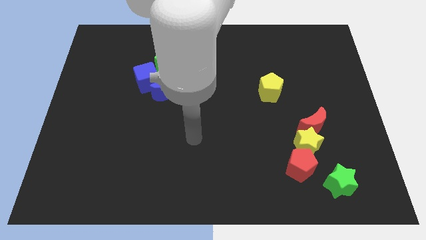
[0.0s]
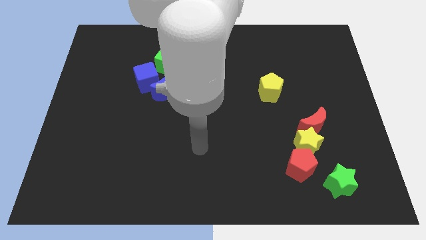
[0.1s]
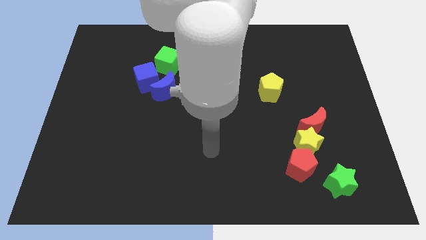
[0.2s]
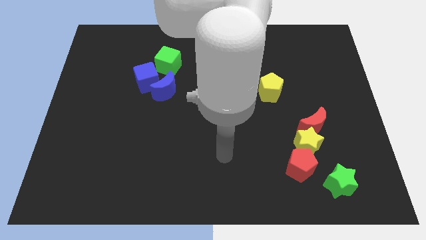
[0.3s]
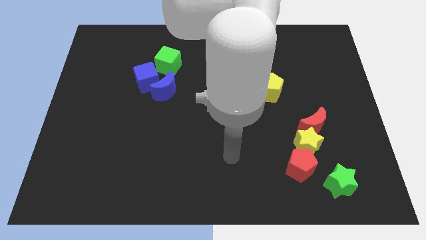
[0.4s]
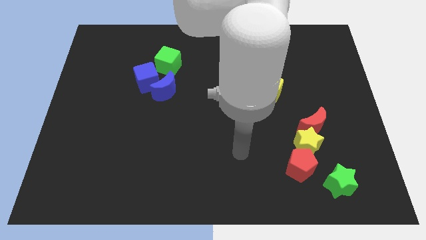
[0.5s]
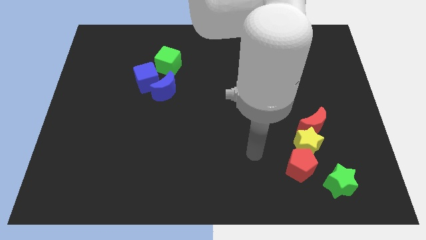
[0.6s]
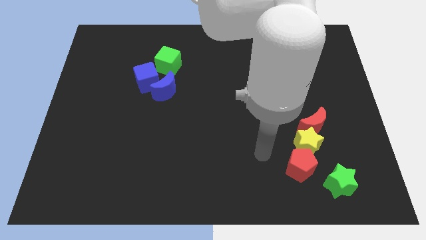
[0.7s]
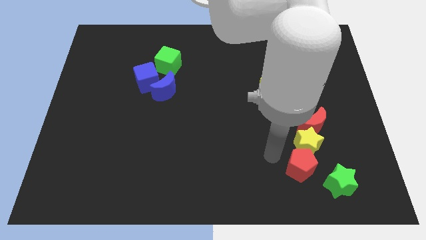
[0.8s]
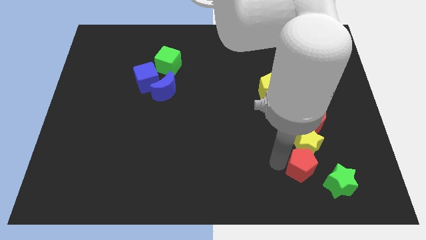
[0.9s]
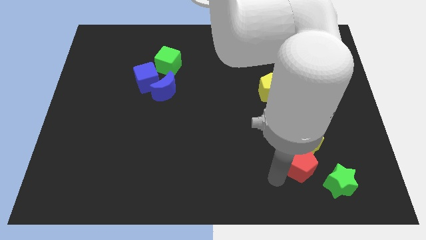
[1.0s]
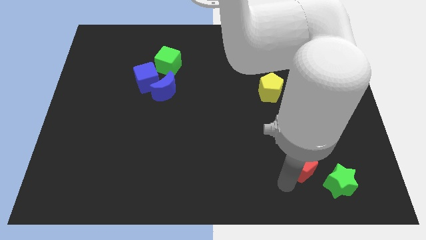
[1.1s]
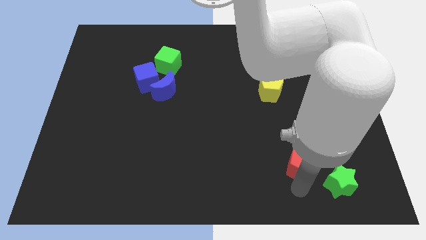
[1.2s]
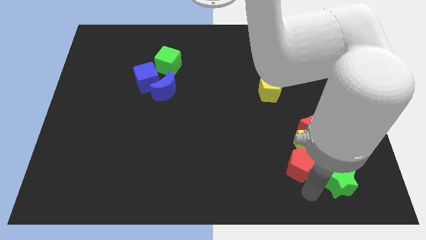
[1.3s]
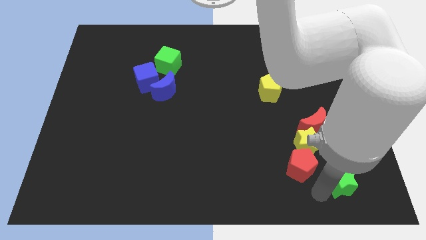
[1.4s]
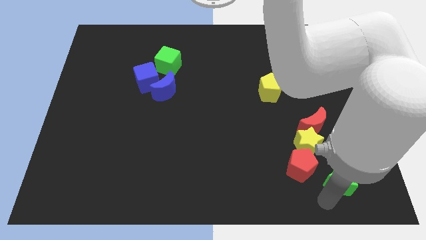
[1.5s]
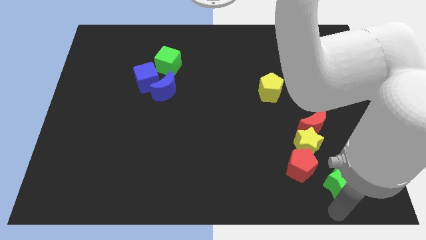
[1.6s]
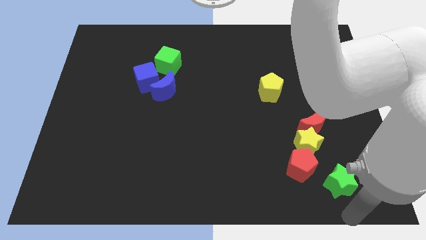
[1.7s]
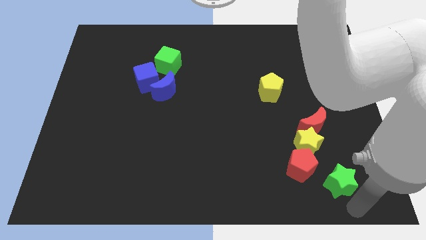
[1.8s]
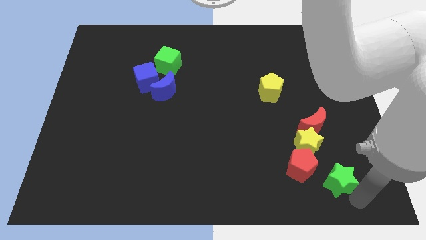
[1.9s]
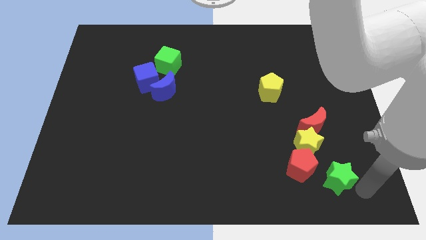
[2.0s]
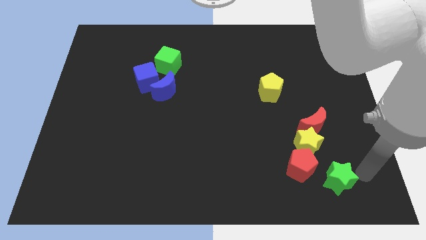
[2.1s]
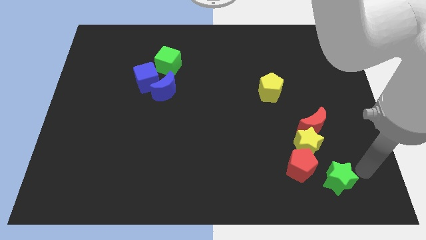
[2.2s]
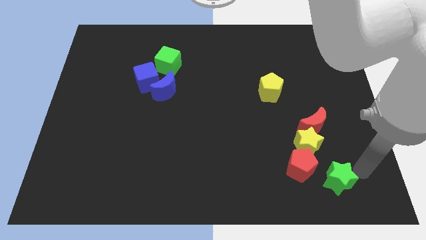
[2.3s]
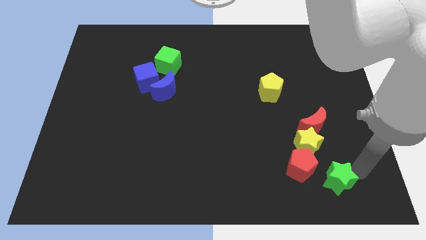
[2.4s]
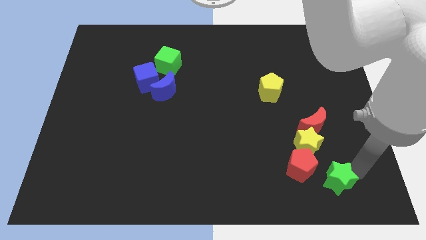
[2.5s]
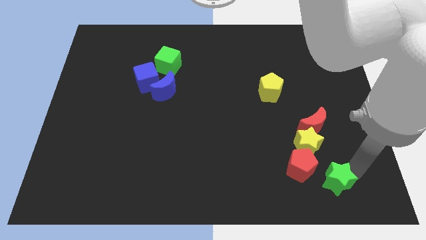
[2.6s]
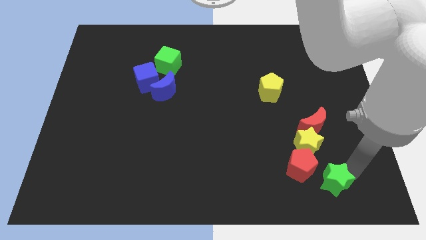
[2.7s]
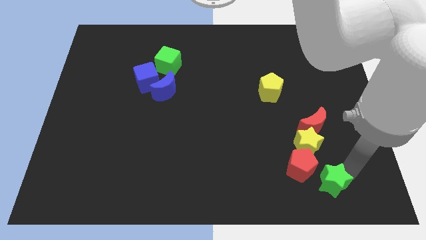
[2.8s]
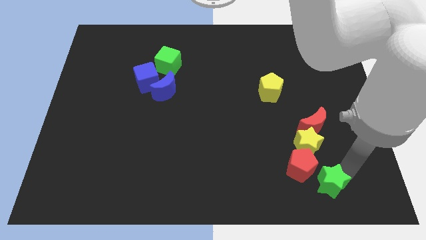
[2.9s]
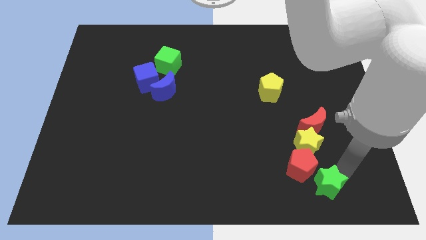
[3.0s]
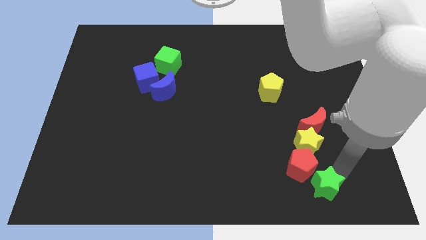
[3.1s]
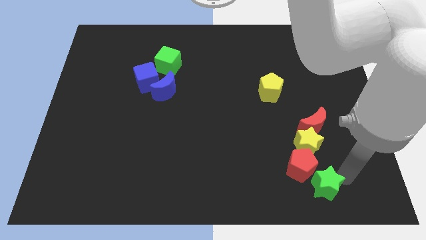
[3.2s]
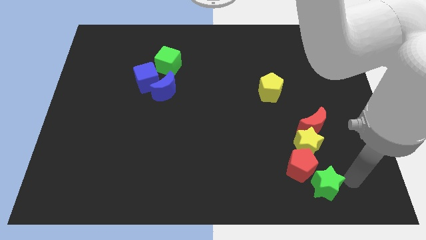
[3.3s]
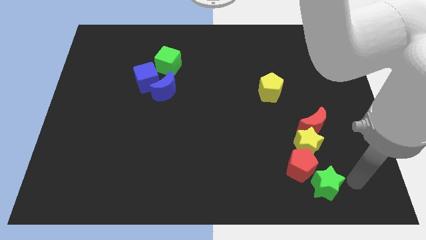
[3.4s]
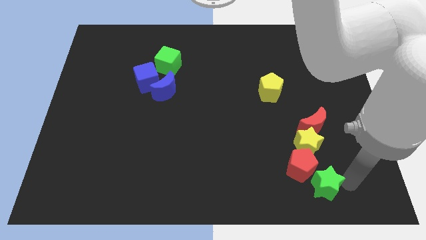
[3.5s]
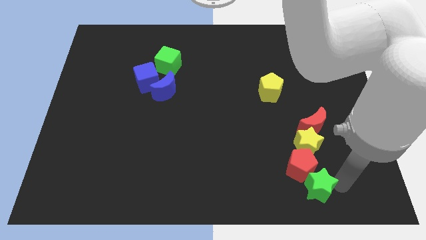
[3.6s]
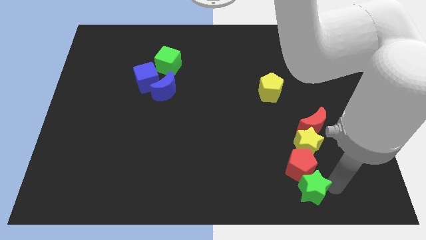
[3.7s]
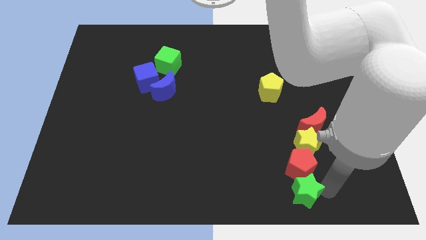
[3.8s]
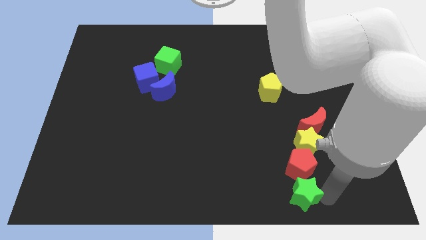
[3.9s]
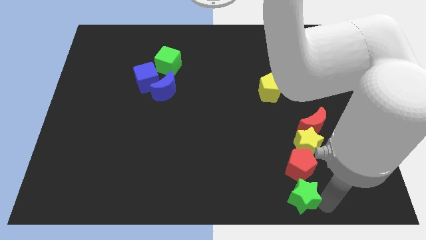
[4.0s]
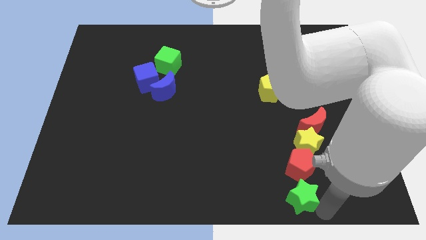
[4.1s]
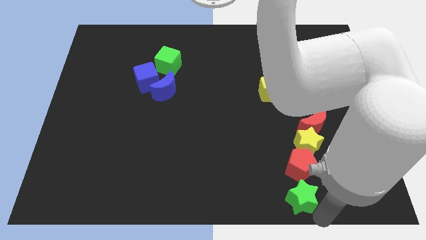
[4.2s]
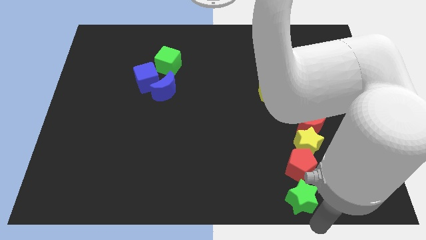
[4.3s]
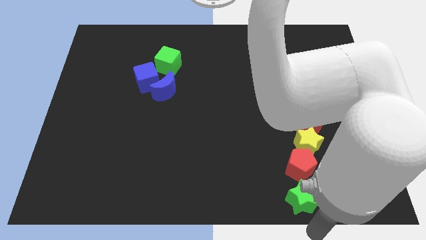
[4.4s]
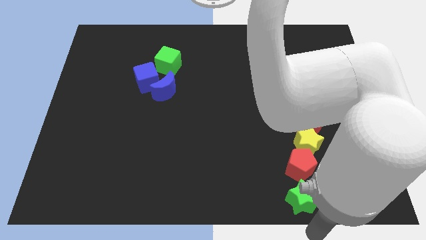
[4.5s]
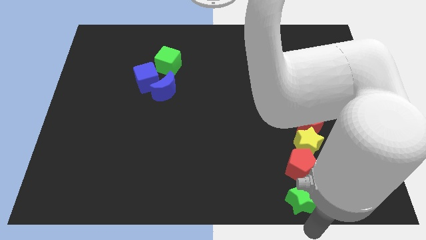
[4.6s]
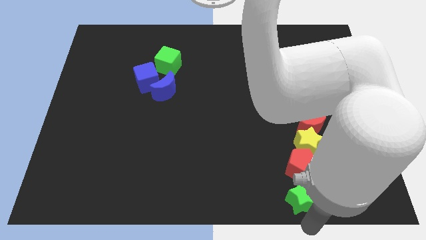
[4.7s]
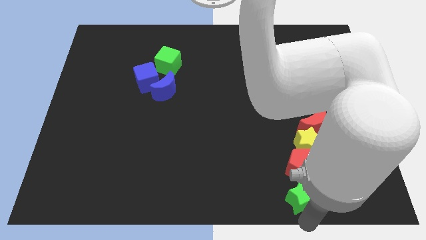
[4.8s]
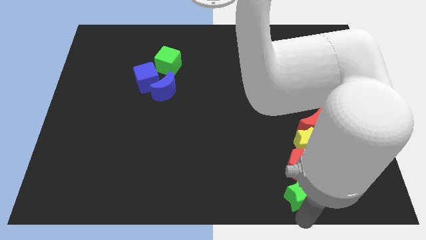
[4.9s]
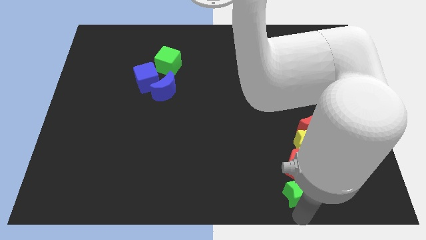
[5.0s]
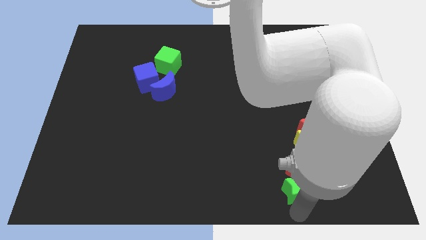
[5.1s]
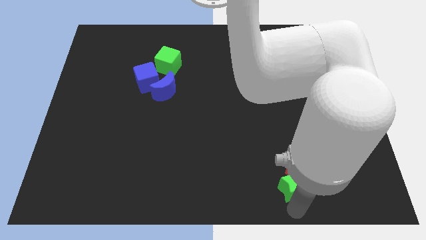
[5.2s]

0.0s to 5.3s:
move the green star to the bottom left side of the yellow star

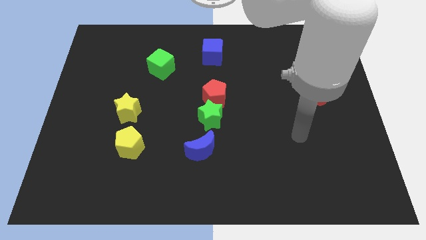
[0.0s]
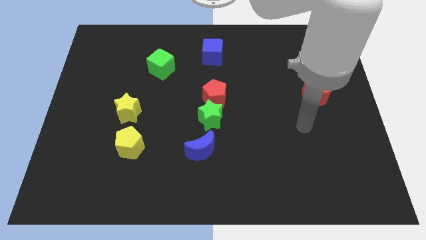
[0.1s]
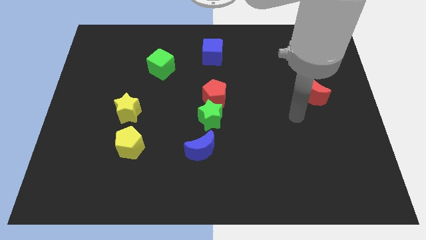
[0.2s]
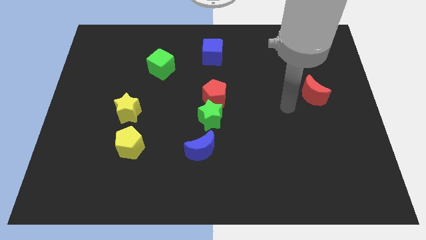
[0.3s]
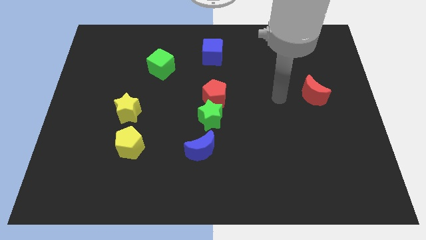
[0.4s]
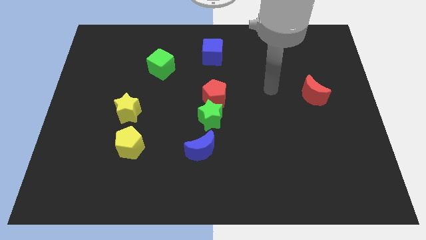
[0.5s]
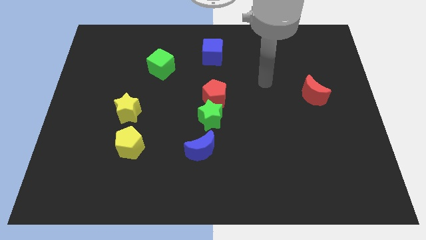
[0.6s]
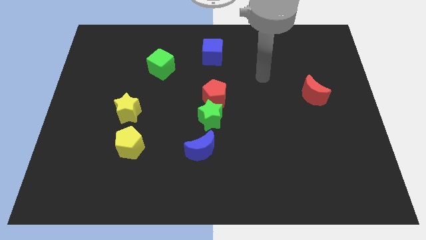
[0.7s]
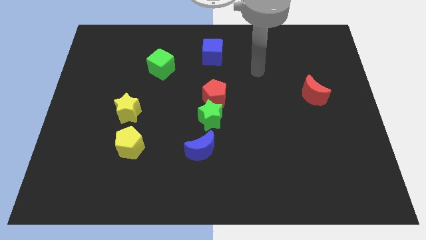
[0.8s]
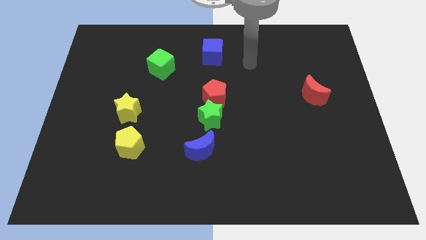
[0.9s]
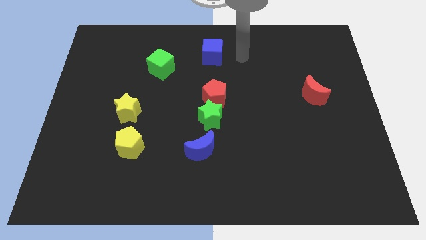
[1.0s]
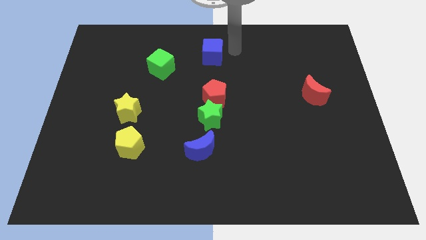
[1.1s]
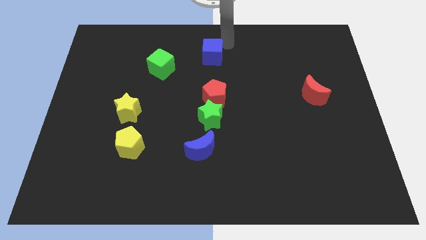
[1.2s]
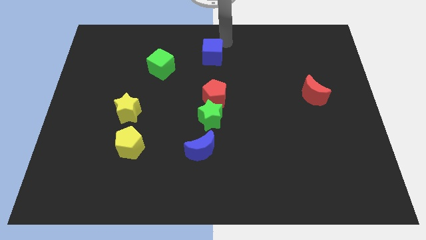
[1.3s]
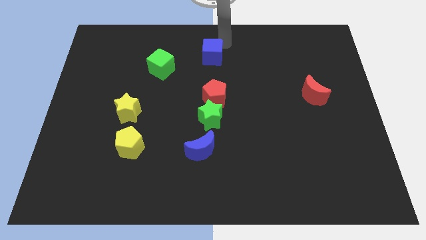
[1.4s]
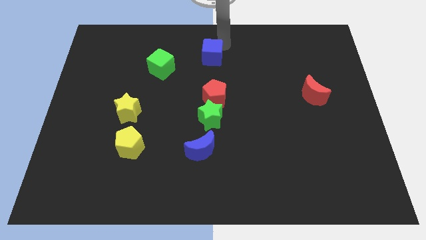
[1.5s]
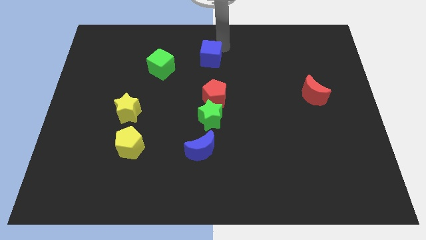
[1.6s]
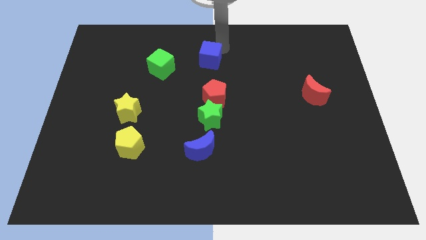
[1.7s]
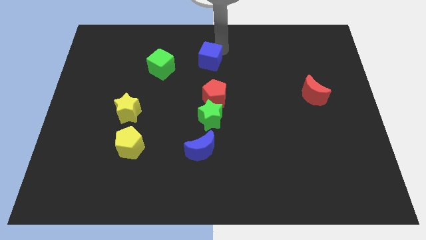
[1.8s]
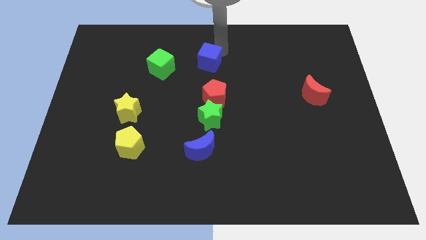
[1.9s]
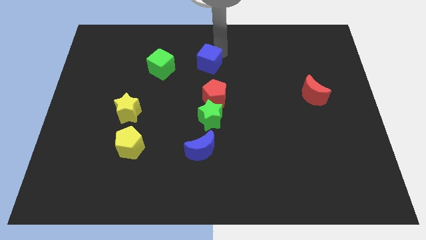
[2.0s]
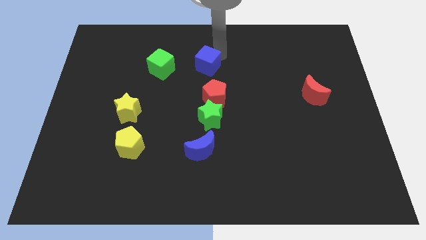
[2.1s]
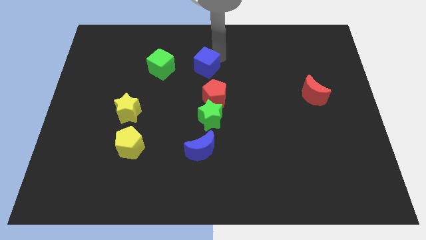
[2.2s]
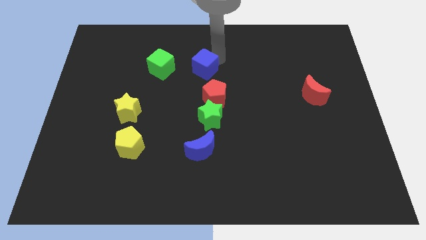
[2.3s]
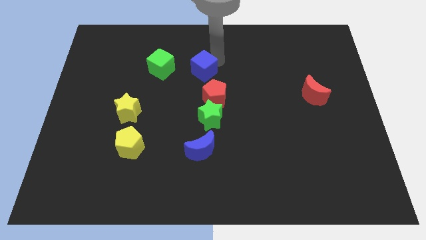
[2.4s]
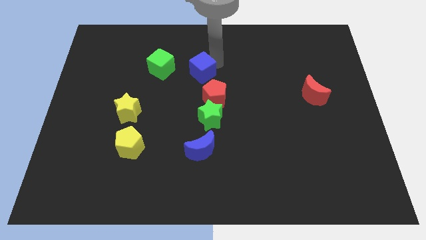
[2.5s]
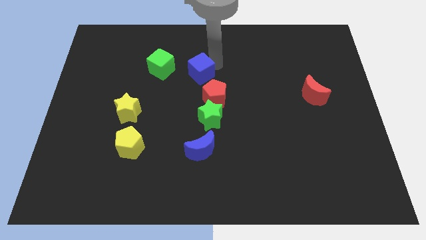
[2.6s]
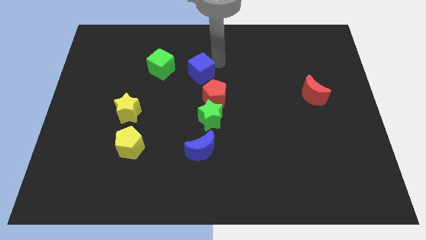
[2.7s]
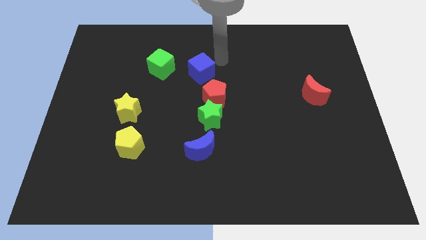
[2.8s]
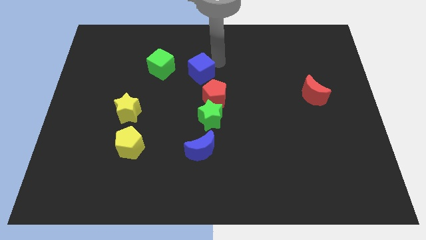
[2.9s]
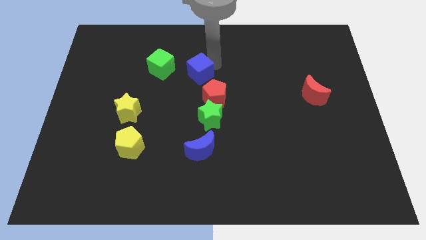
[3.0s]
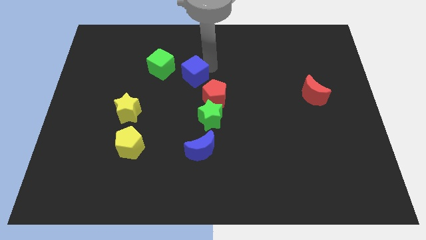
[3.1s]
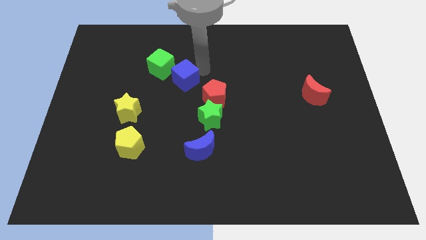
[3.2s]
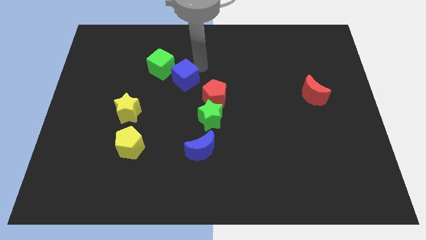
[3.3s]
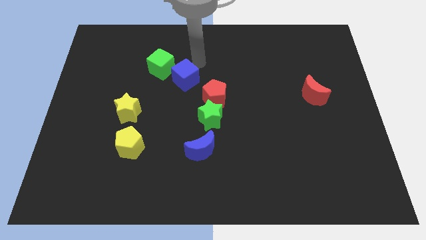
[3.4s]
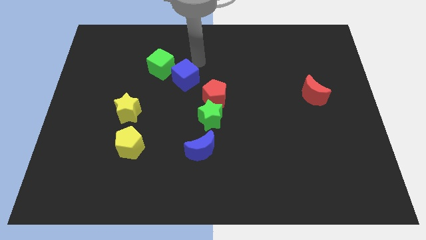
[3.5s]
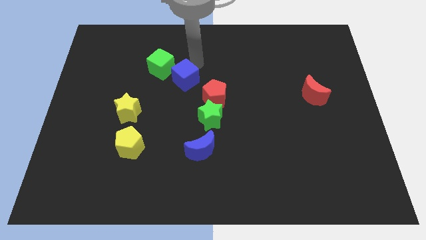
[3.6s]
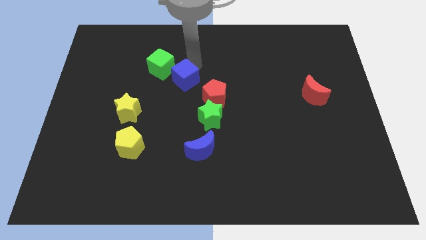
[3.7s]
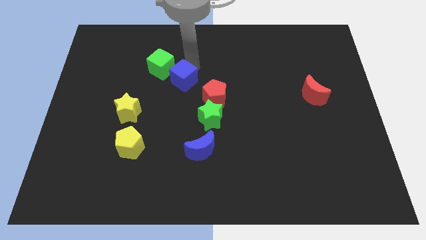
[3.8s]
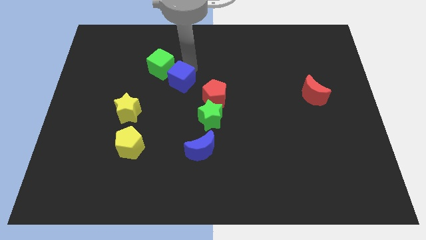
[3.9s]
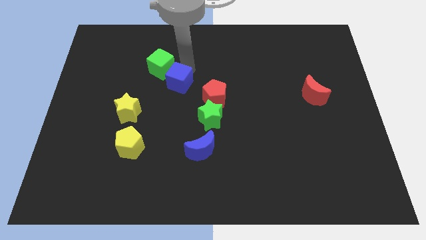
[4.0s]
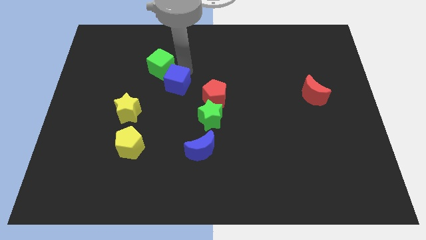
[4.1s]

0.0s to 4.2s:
push the blue cube left of the red pentagon
